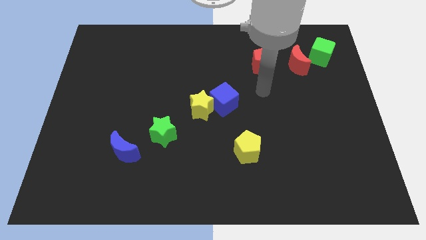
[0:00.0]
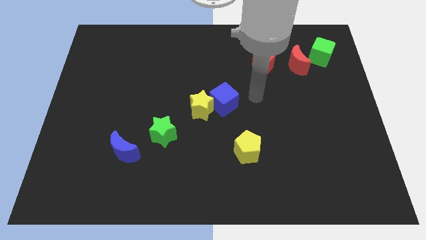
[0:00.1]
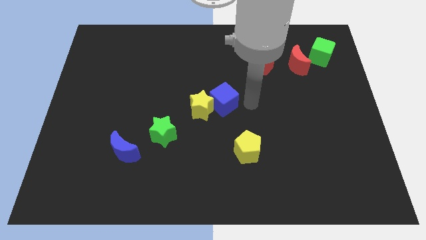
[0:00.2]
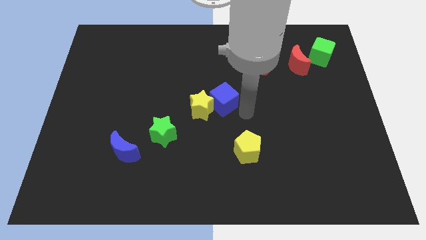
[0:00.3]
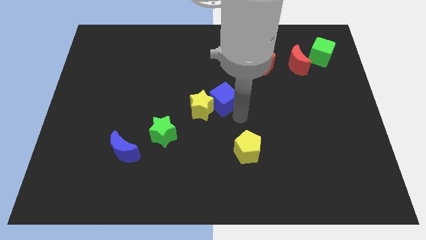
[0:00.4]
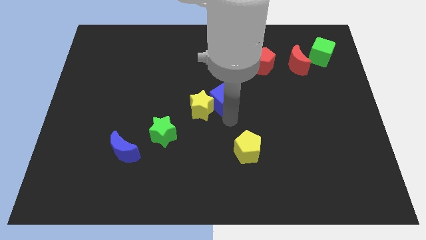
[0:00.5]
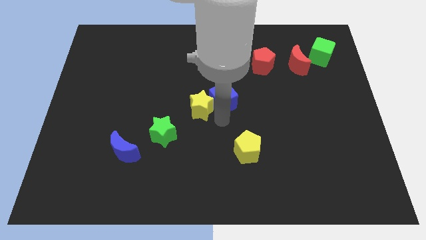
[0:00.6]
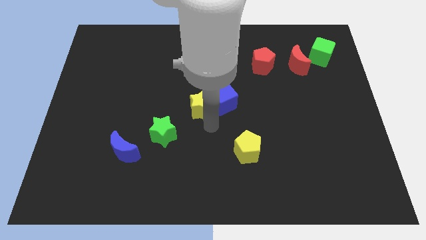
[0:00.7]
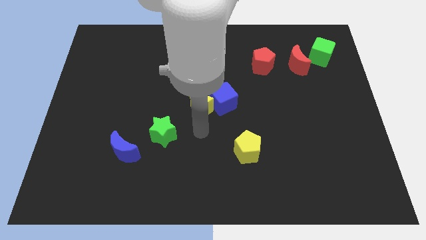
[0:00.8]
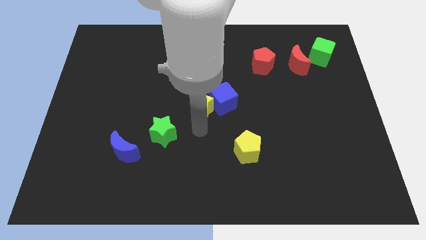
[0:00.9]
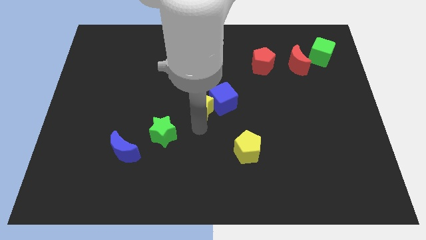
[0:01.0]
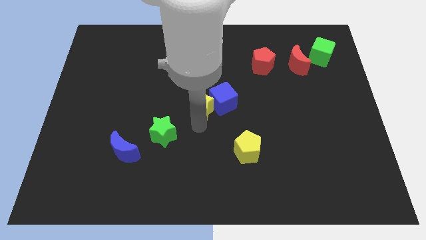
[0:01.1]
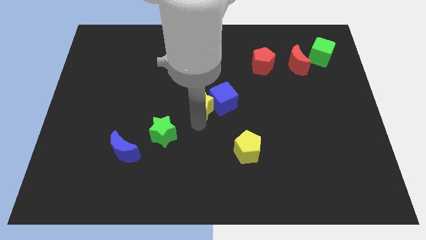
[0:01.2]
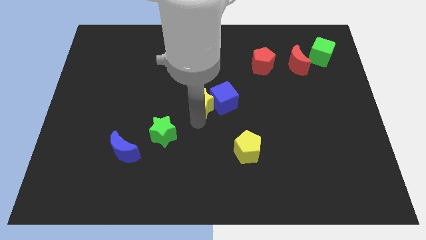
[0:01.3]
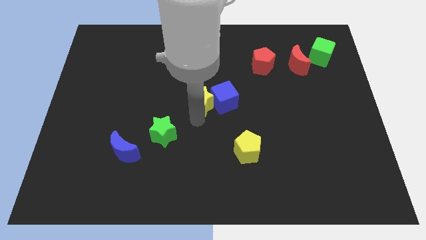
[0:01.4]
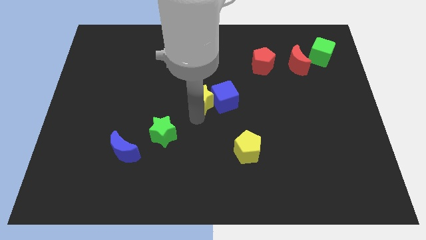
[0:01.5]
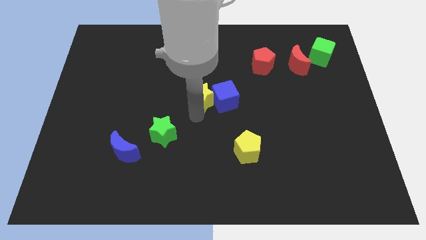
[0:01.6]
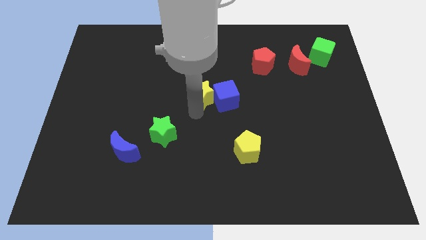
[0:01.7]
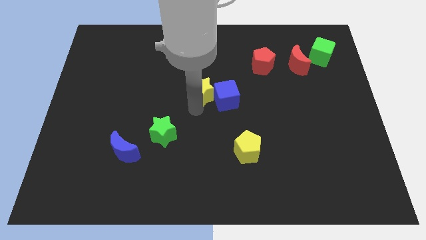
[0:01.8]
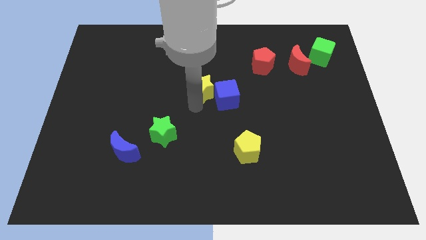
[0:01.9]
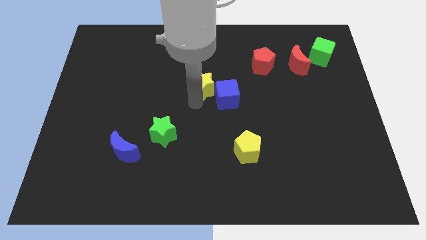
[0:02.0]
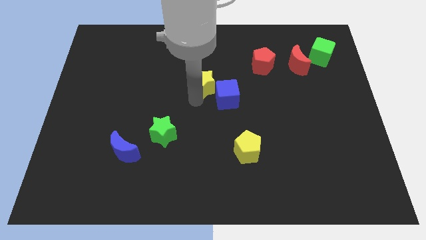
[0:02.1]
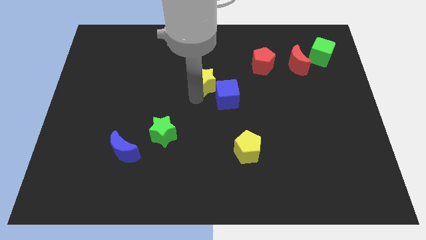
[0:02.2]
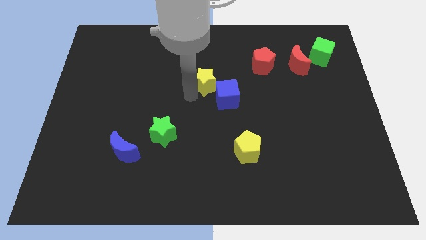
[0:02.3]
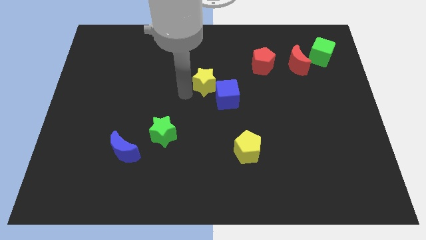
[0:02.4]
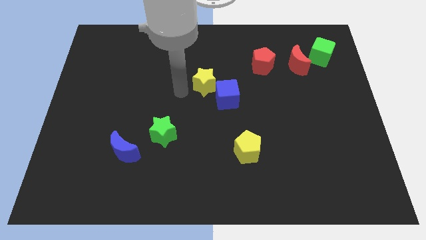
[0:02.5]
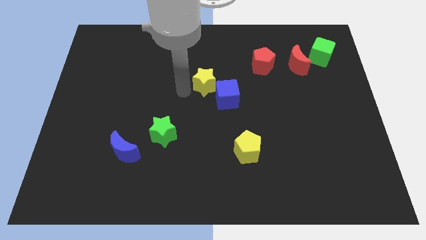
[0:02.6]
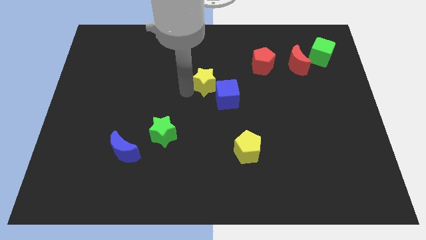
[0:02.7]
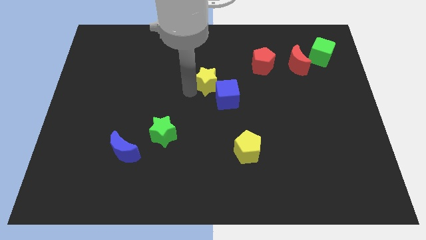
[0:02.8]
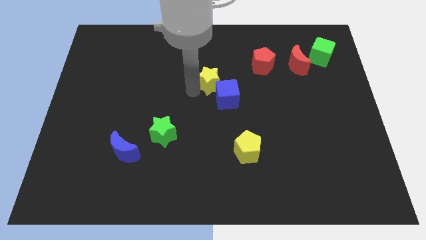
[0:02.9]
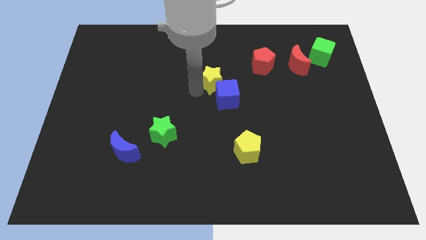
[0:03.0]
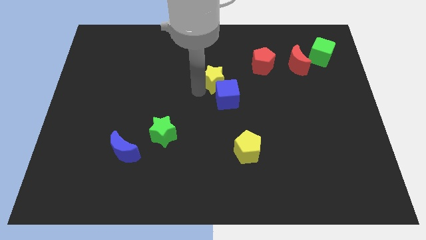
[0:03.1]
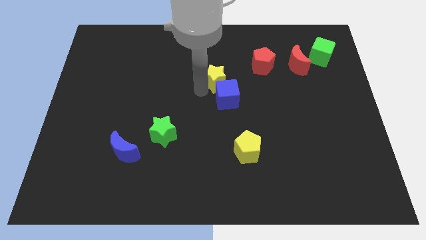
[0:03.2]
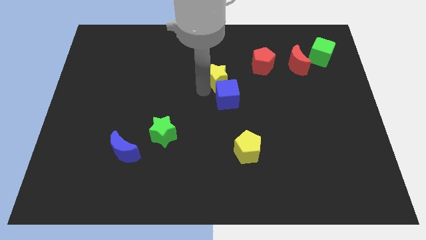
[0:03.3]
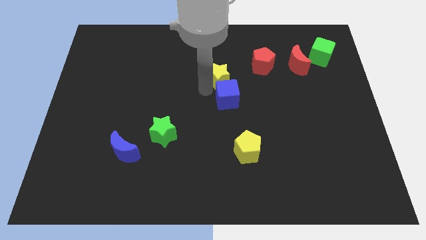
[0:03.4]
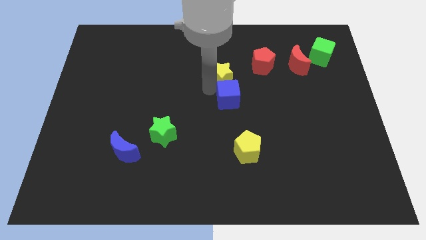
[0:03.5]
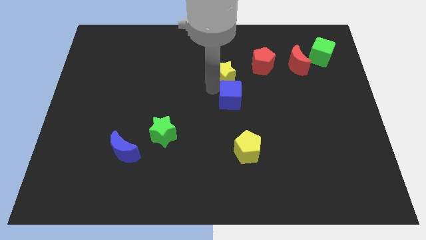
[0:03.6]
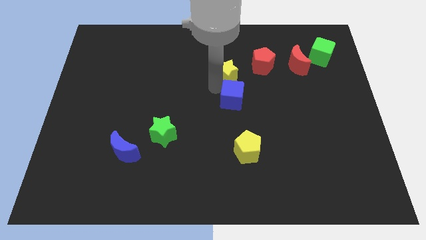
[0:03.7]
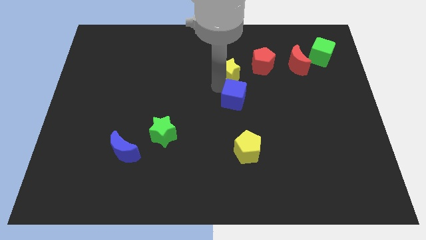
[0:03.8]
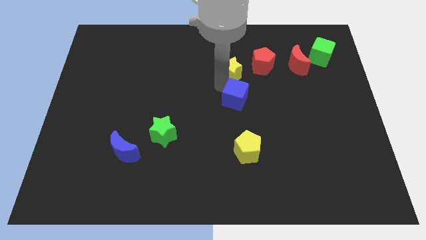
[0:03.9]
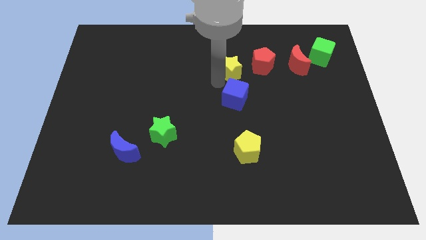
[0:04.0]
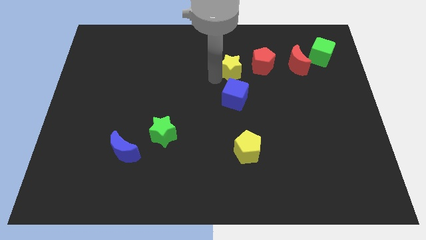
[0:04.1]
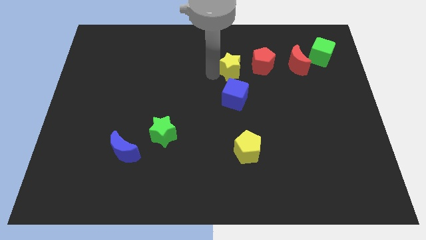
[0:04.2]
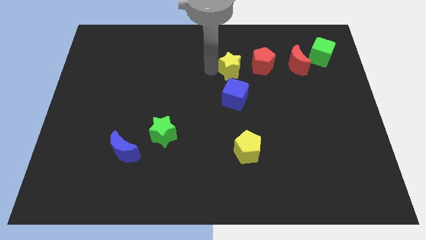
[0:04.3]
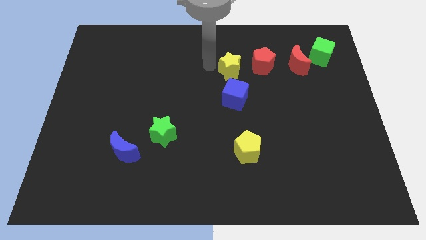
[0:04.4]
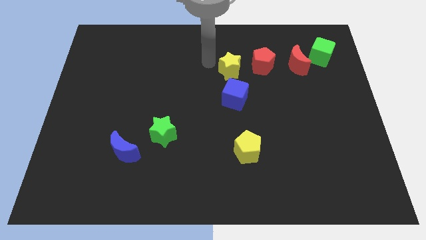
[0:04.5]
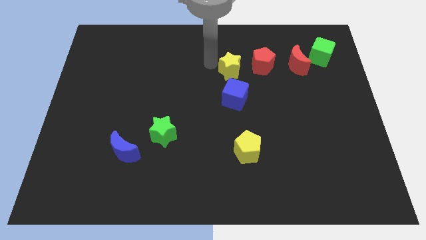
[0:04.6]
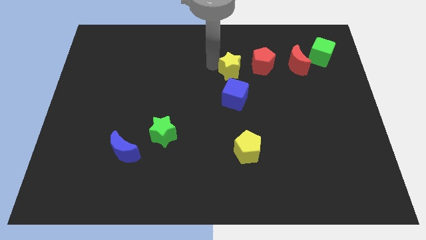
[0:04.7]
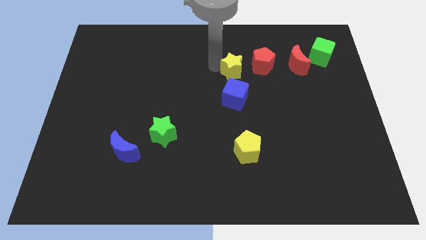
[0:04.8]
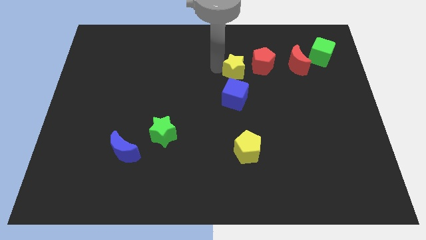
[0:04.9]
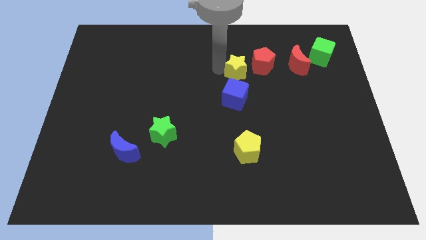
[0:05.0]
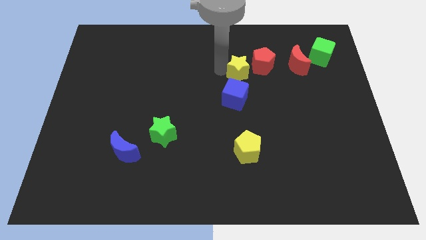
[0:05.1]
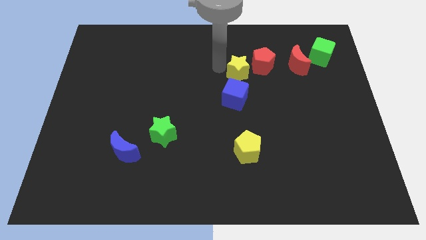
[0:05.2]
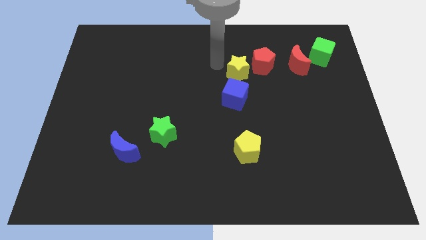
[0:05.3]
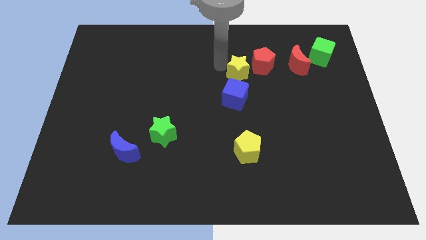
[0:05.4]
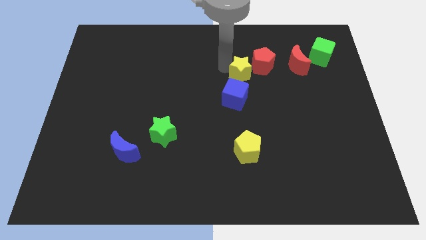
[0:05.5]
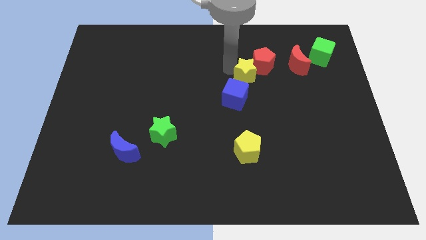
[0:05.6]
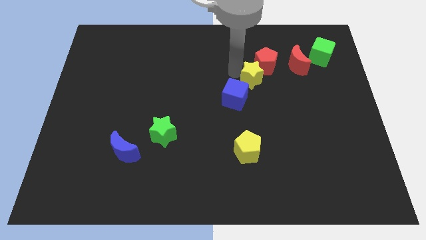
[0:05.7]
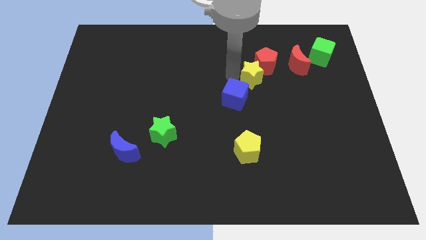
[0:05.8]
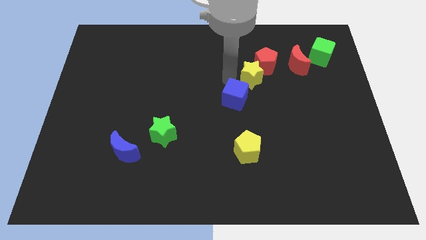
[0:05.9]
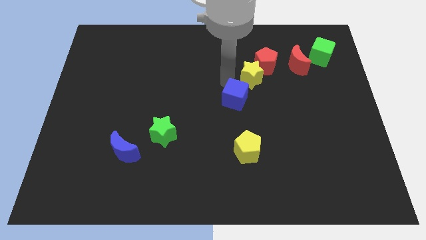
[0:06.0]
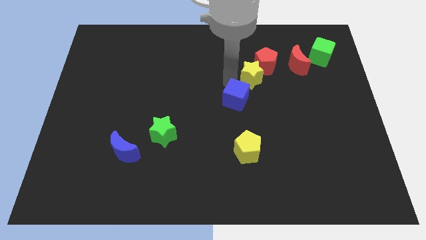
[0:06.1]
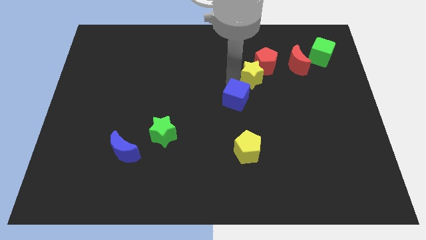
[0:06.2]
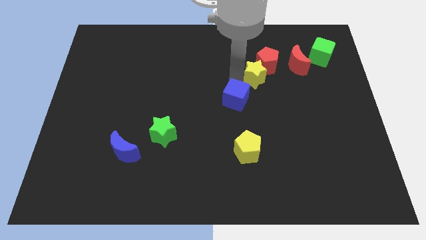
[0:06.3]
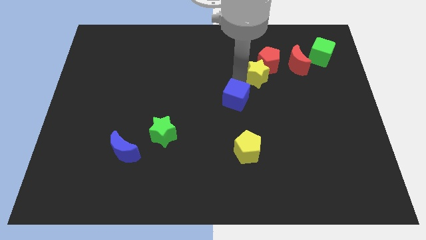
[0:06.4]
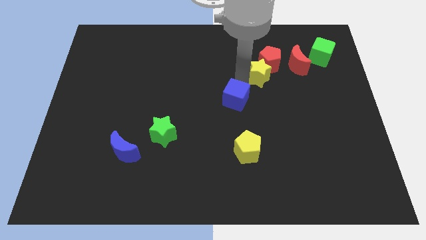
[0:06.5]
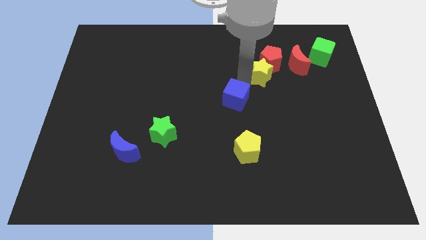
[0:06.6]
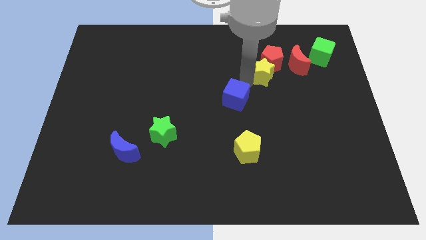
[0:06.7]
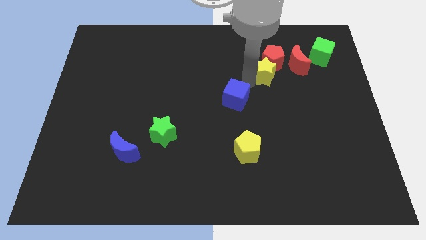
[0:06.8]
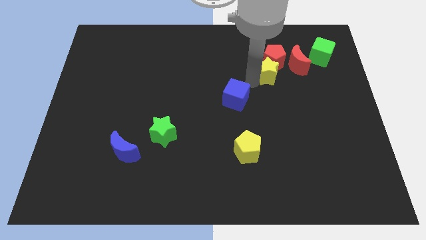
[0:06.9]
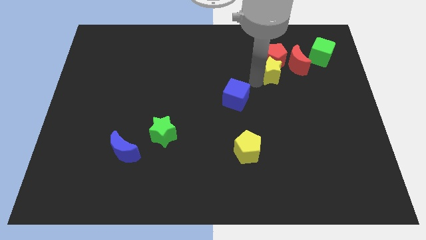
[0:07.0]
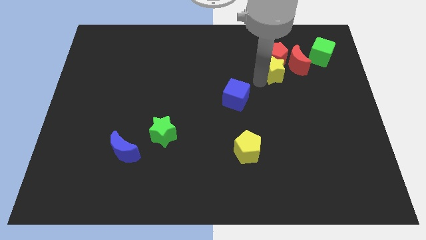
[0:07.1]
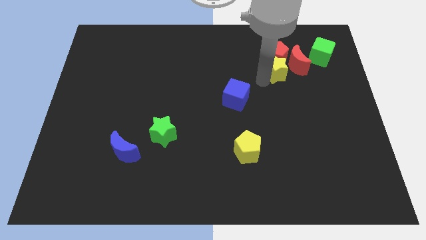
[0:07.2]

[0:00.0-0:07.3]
push the yellow star next to the red moon
